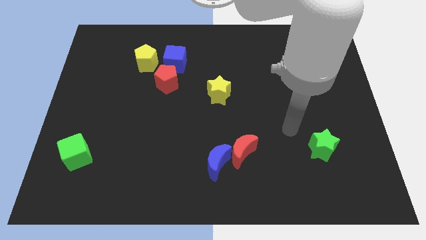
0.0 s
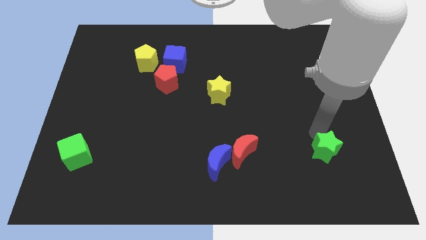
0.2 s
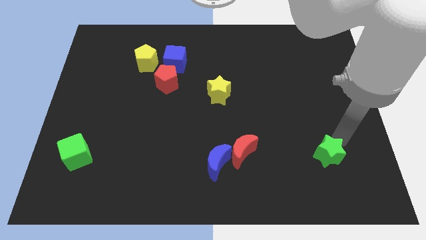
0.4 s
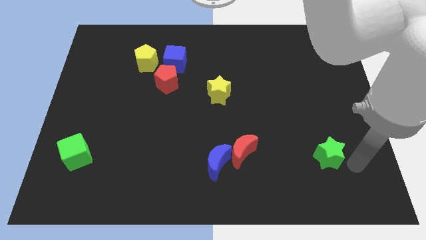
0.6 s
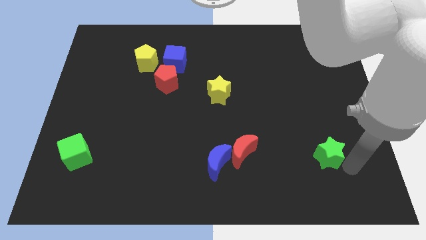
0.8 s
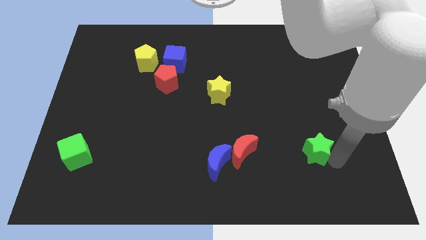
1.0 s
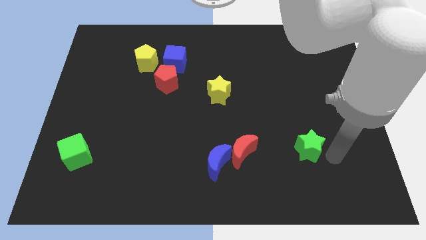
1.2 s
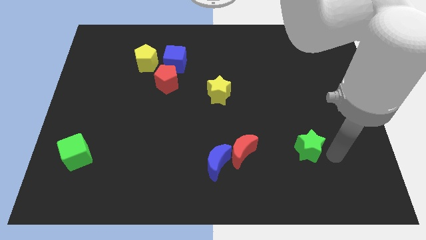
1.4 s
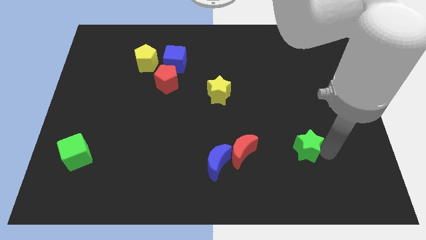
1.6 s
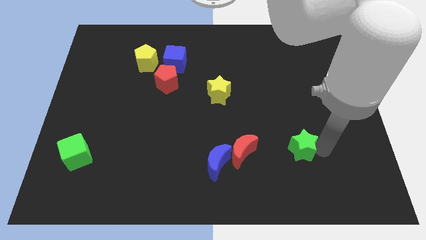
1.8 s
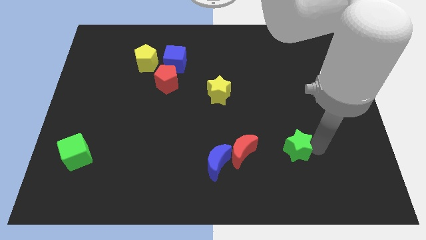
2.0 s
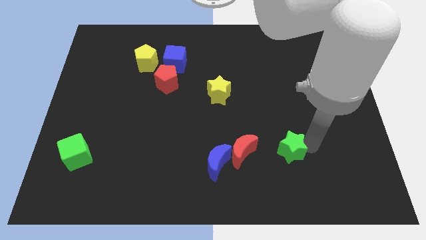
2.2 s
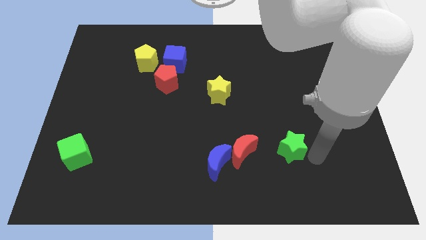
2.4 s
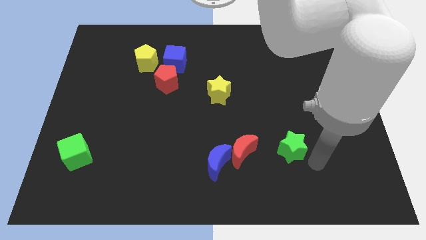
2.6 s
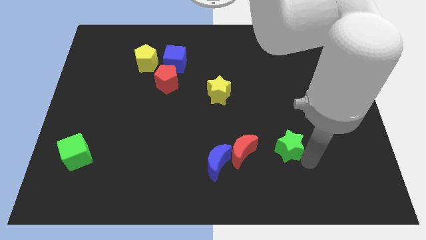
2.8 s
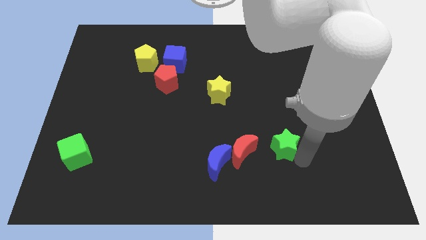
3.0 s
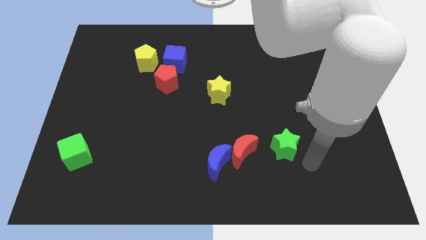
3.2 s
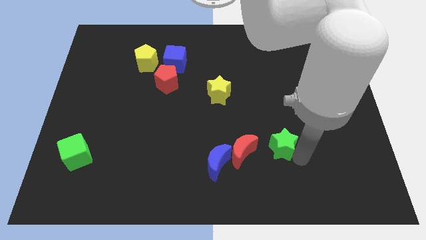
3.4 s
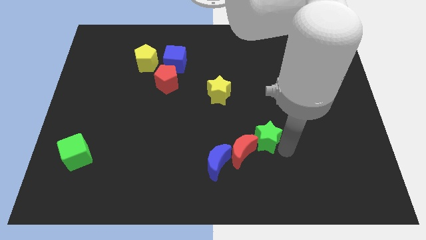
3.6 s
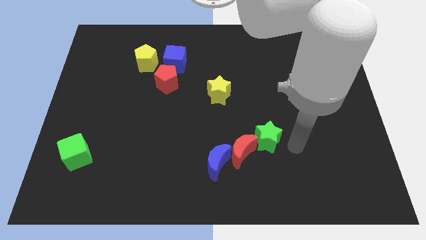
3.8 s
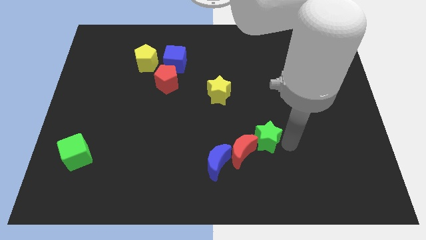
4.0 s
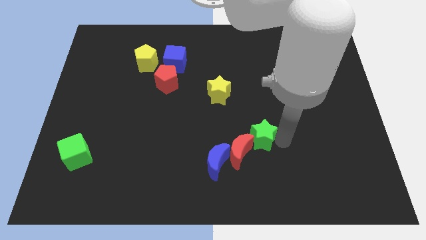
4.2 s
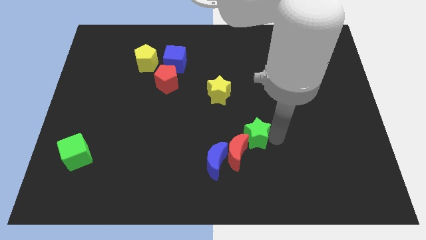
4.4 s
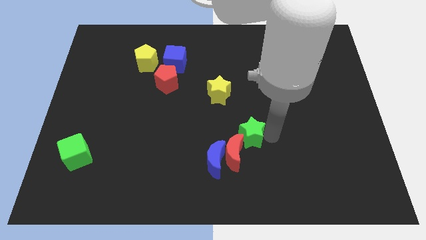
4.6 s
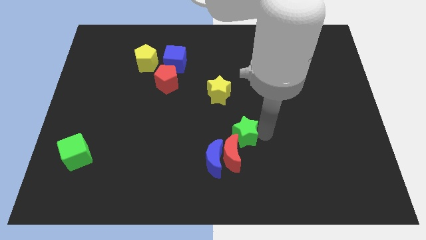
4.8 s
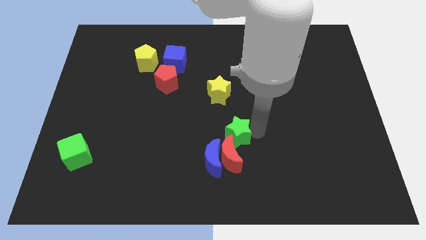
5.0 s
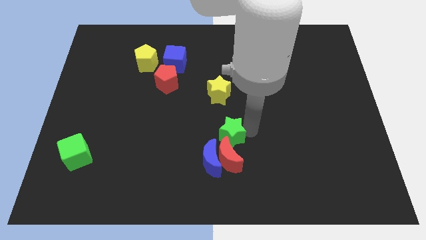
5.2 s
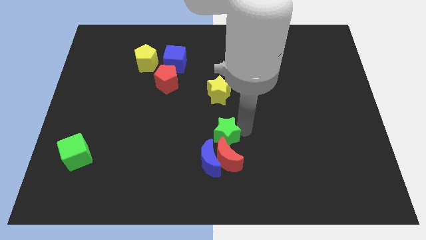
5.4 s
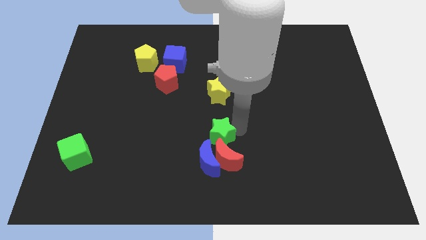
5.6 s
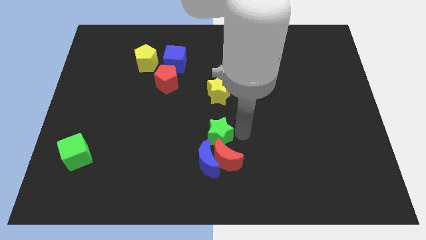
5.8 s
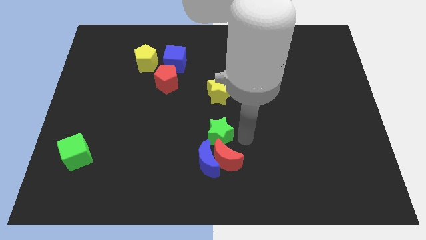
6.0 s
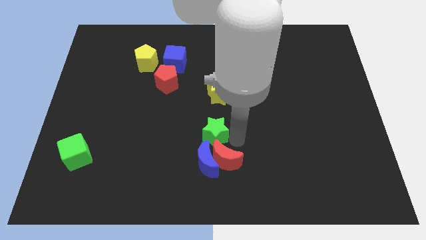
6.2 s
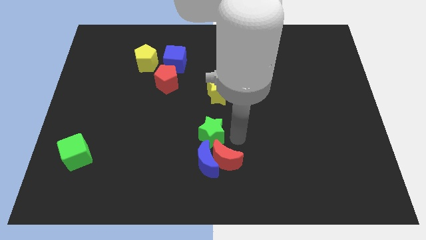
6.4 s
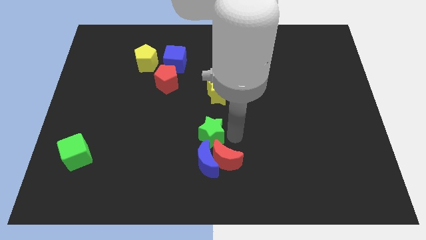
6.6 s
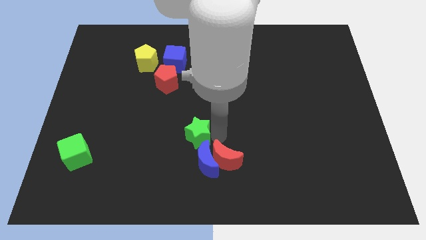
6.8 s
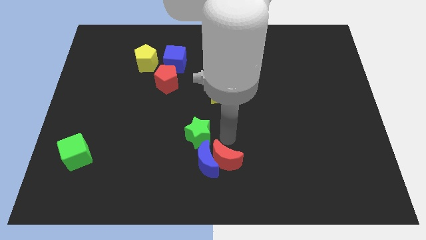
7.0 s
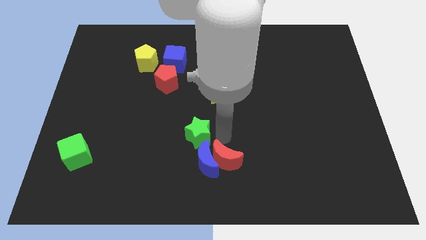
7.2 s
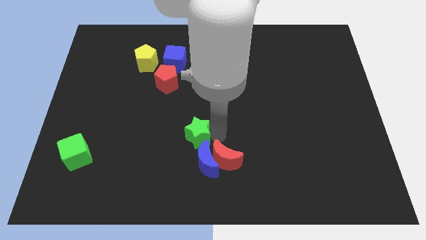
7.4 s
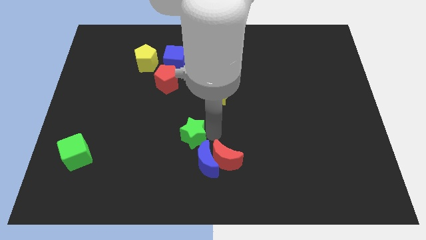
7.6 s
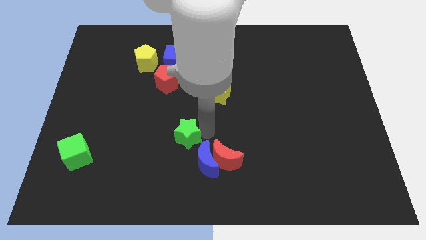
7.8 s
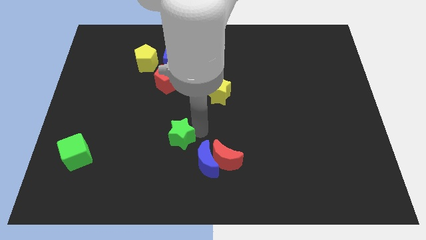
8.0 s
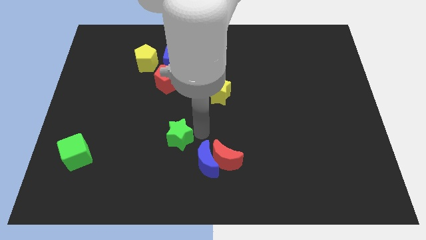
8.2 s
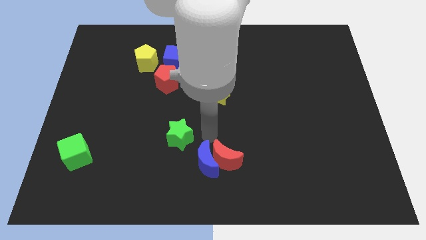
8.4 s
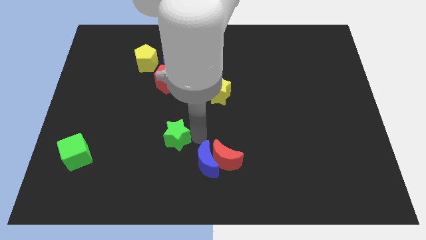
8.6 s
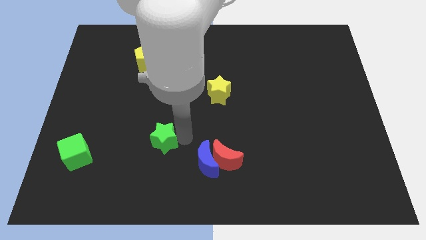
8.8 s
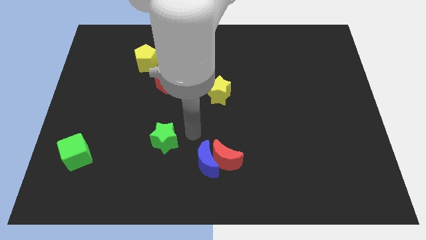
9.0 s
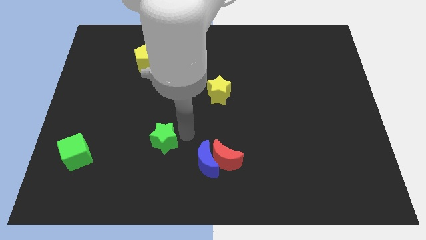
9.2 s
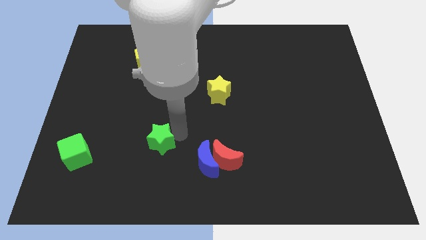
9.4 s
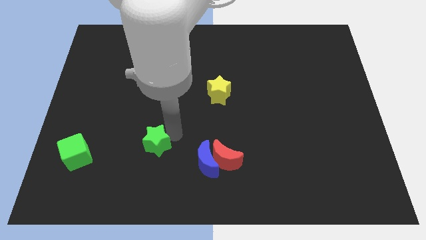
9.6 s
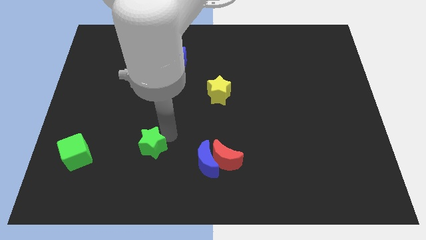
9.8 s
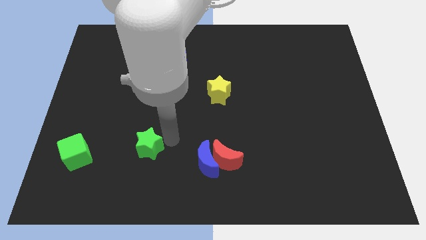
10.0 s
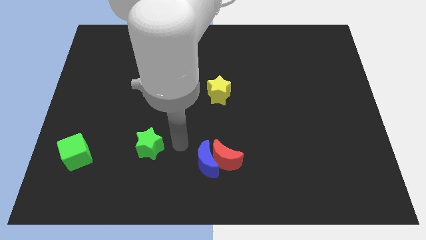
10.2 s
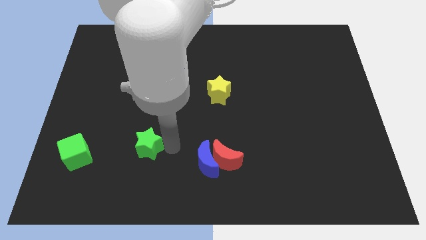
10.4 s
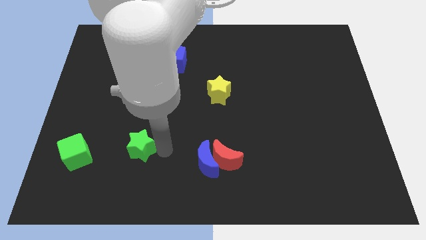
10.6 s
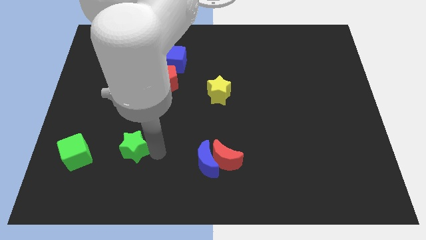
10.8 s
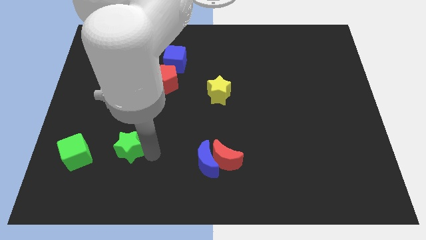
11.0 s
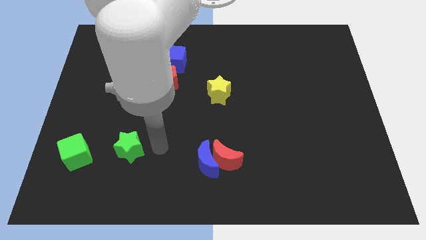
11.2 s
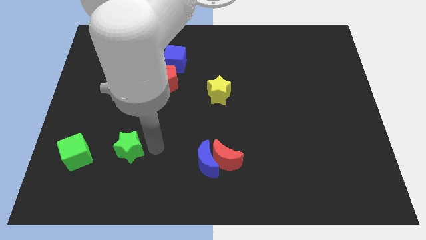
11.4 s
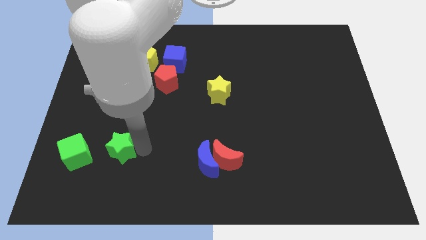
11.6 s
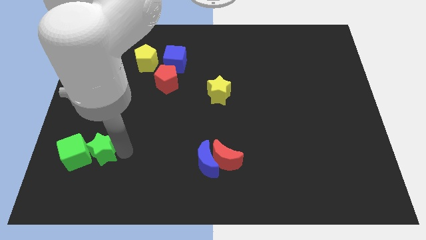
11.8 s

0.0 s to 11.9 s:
push the green star to the green cube
